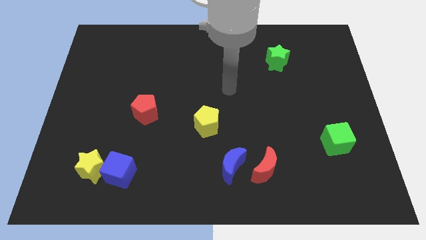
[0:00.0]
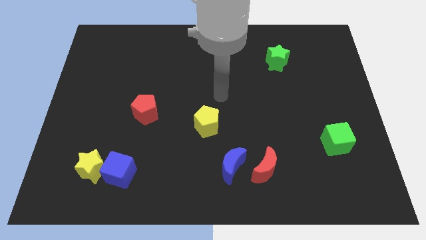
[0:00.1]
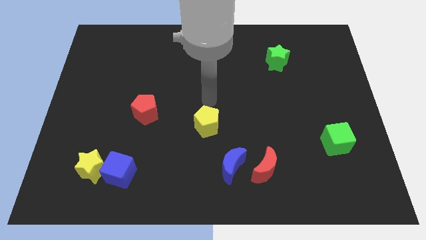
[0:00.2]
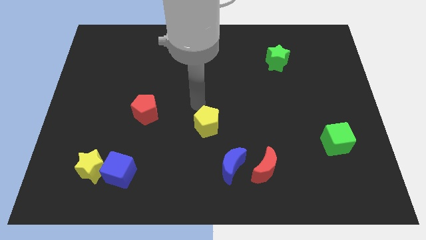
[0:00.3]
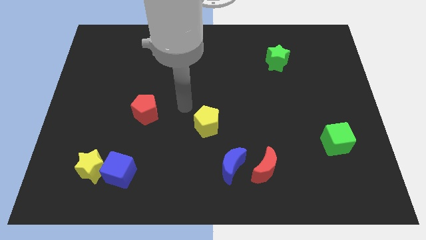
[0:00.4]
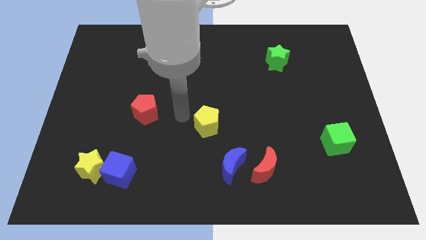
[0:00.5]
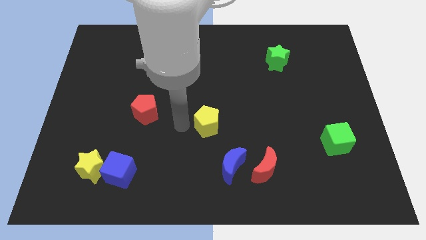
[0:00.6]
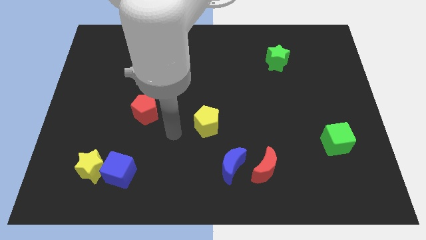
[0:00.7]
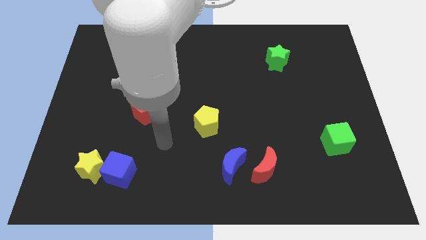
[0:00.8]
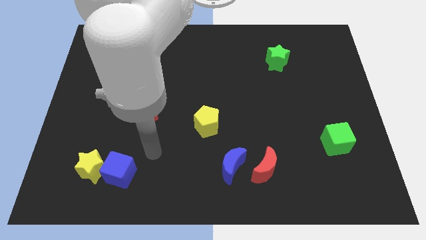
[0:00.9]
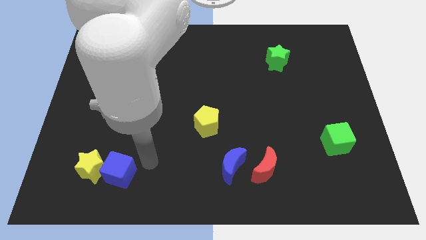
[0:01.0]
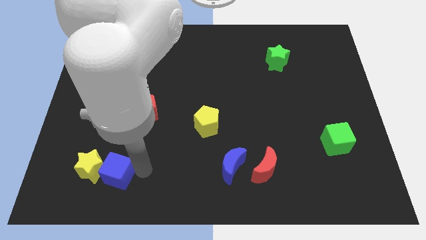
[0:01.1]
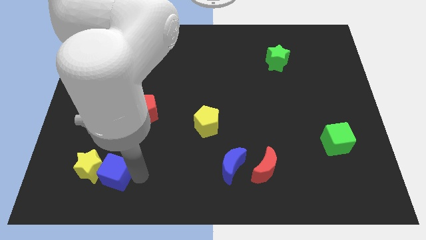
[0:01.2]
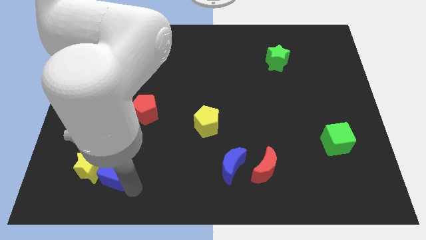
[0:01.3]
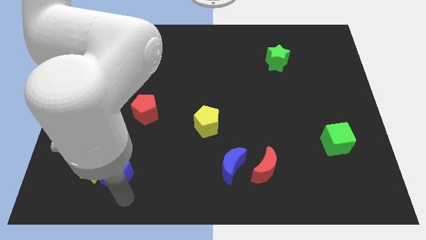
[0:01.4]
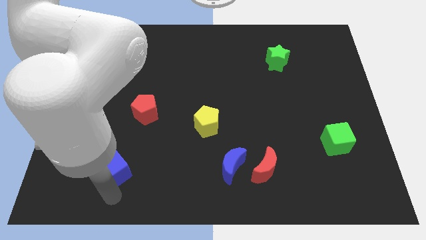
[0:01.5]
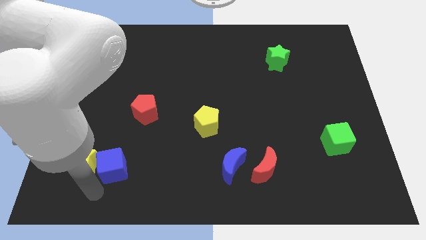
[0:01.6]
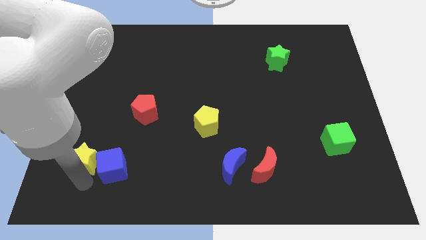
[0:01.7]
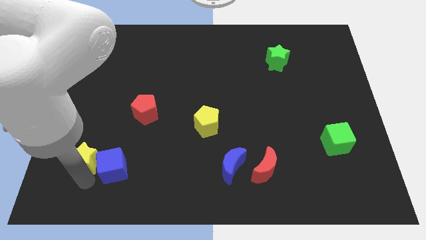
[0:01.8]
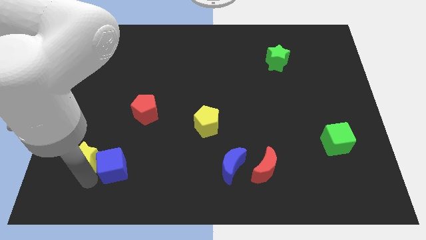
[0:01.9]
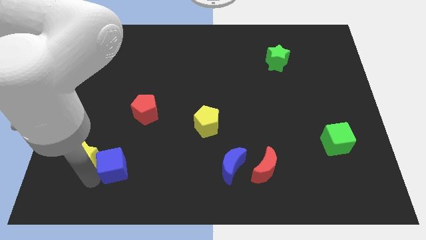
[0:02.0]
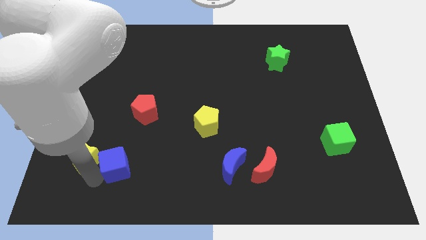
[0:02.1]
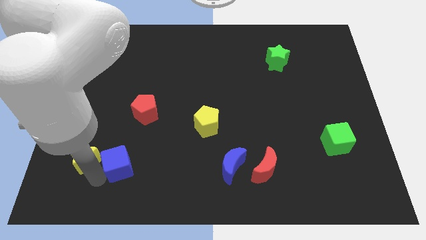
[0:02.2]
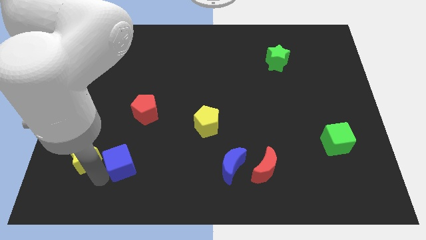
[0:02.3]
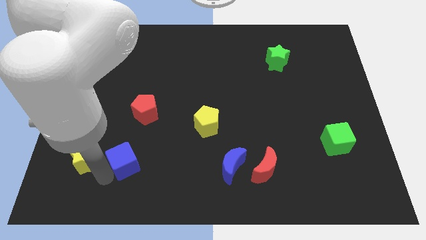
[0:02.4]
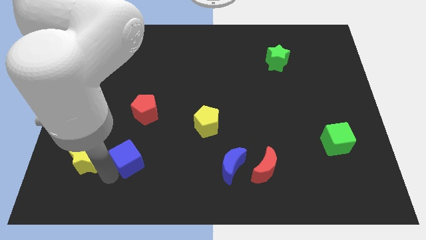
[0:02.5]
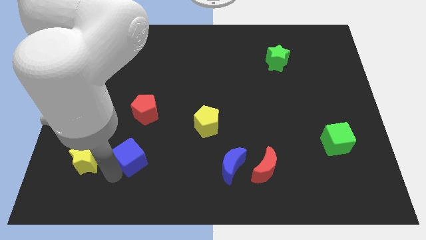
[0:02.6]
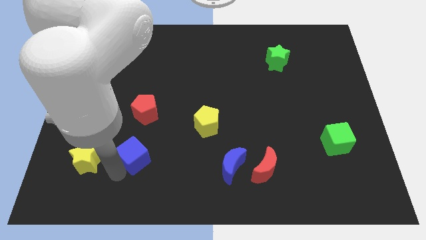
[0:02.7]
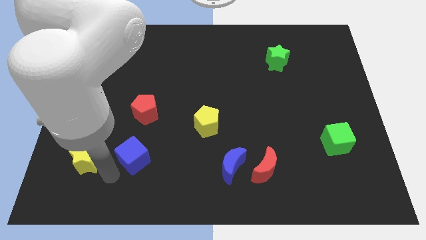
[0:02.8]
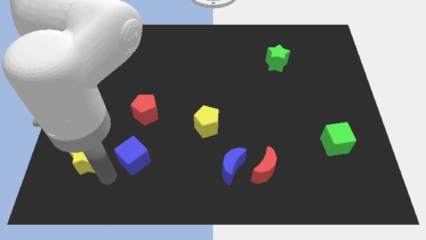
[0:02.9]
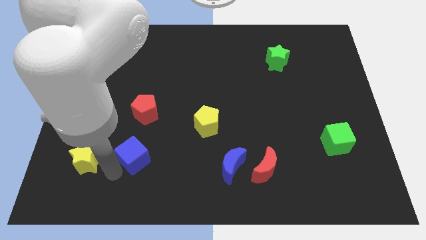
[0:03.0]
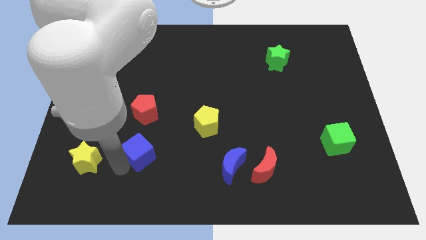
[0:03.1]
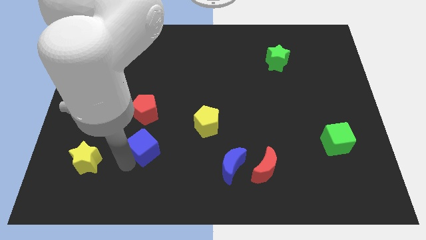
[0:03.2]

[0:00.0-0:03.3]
slide the blue cube a bit diagonally up and to the right

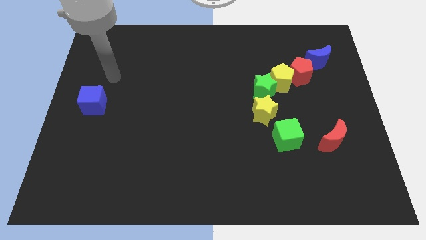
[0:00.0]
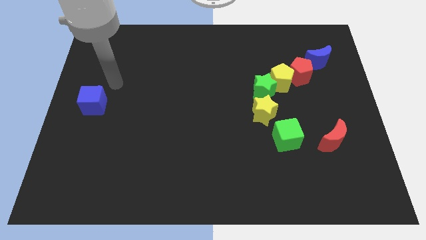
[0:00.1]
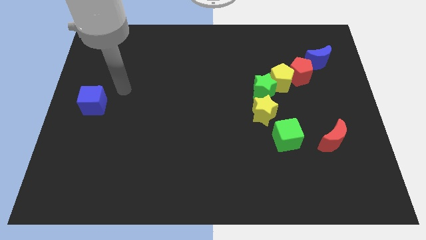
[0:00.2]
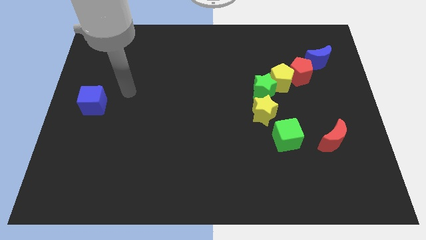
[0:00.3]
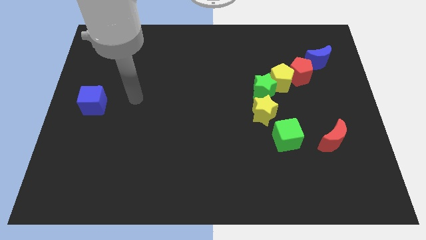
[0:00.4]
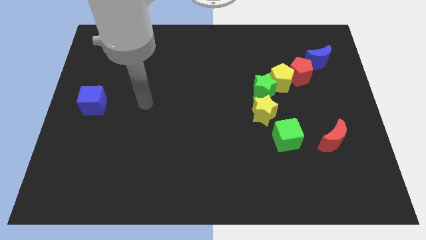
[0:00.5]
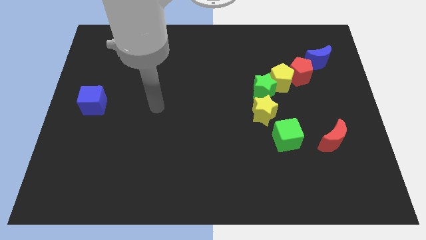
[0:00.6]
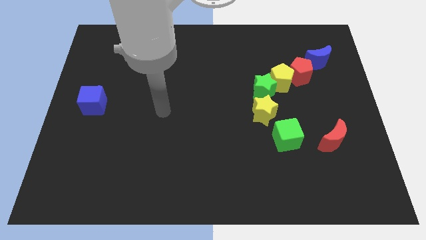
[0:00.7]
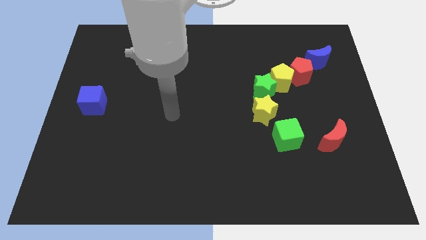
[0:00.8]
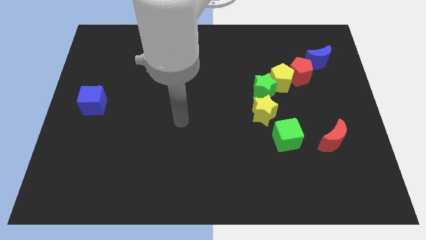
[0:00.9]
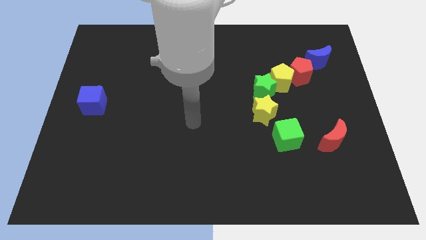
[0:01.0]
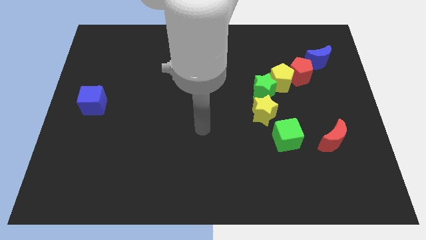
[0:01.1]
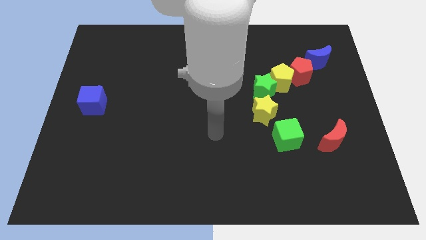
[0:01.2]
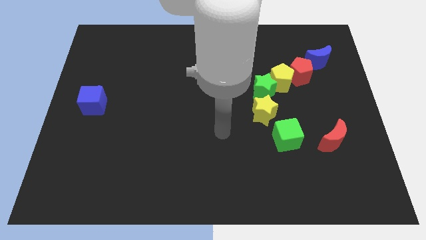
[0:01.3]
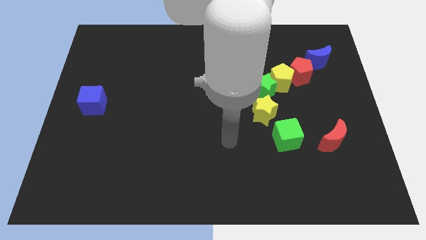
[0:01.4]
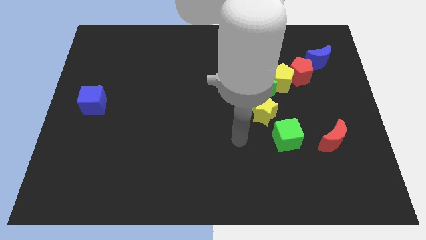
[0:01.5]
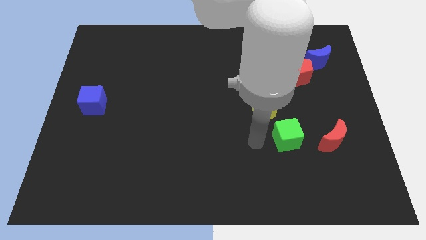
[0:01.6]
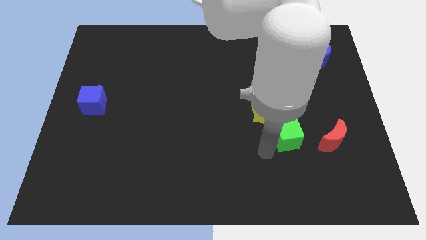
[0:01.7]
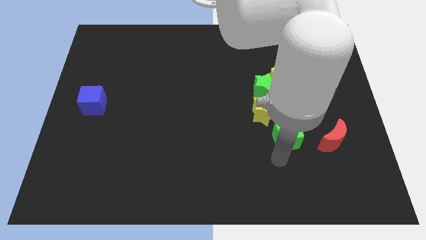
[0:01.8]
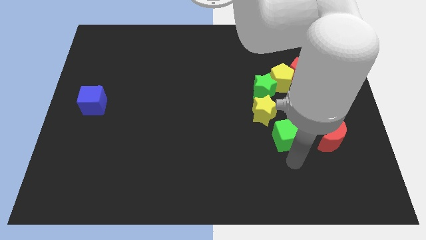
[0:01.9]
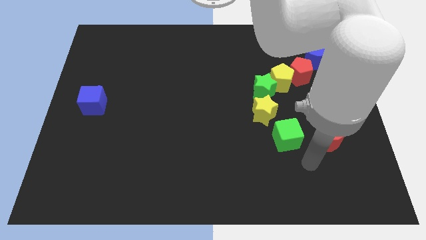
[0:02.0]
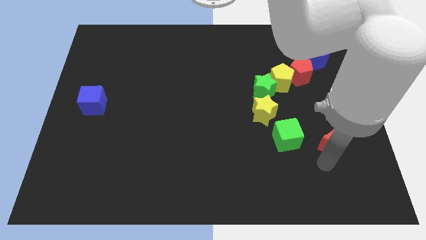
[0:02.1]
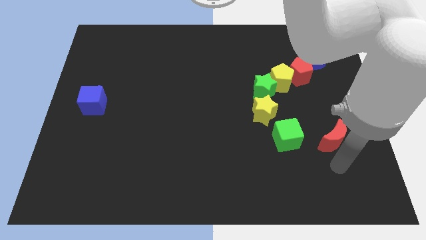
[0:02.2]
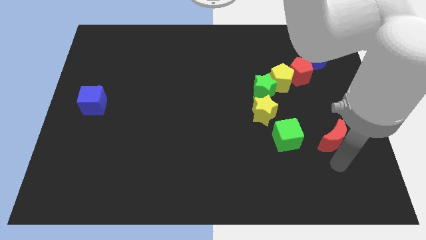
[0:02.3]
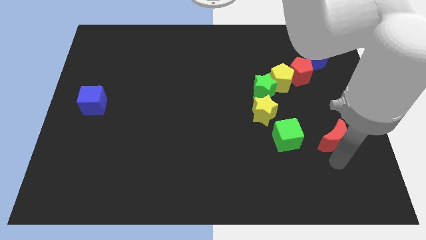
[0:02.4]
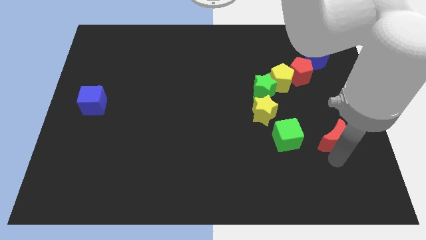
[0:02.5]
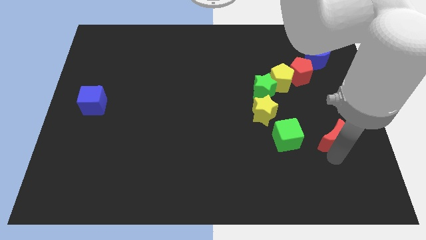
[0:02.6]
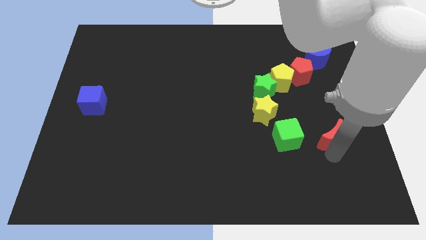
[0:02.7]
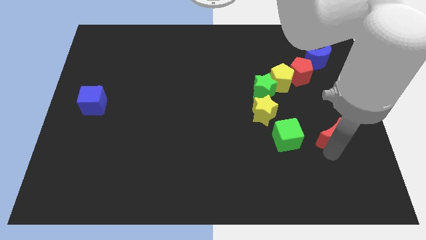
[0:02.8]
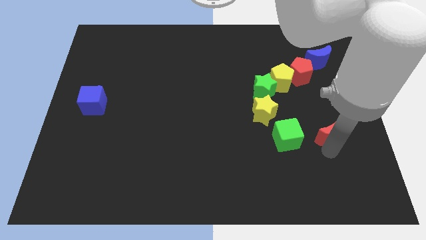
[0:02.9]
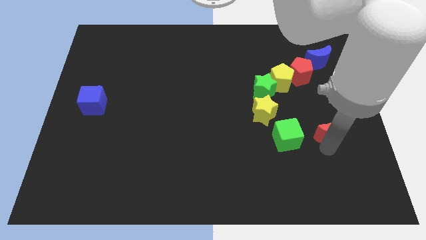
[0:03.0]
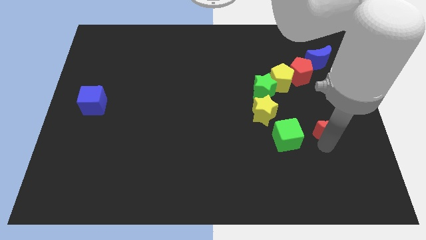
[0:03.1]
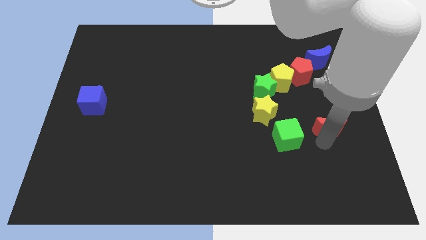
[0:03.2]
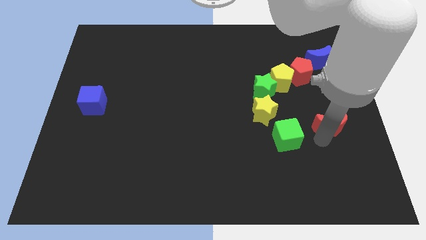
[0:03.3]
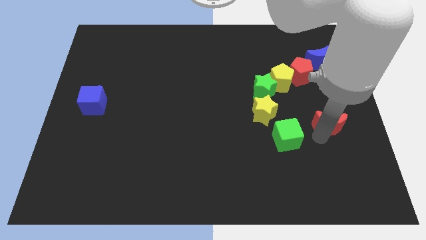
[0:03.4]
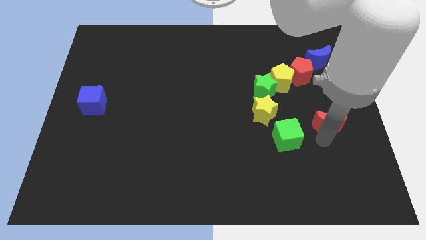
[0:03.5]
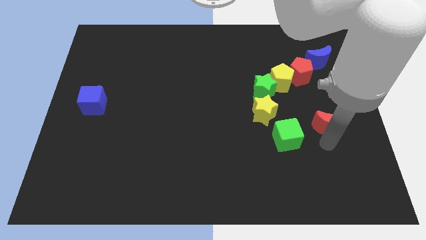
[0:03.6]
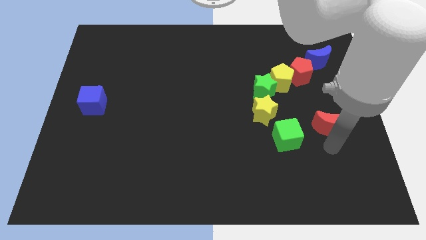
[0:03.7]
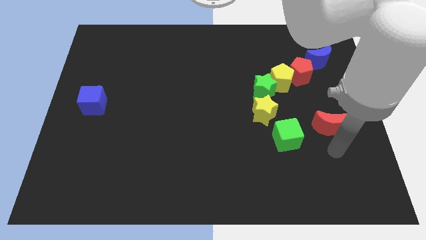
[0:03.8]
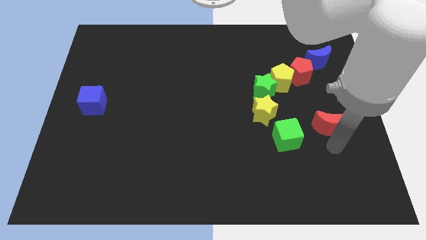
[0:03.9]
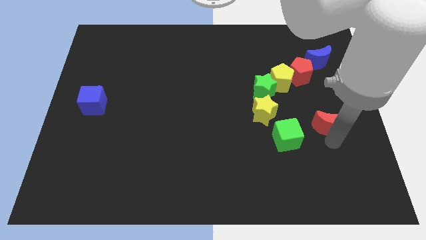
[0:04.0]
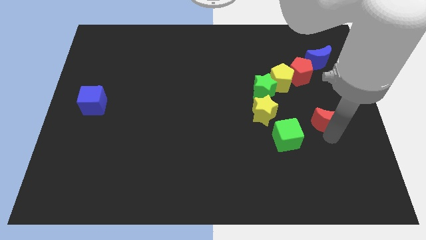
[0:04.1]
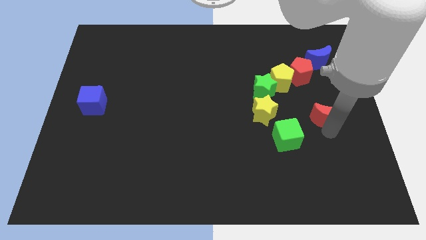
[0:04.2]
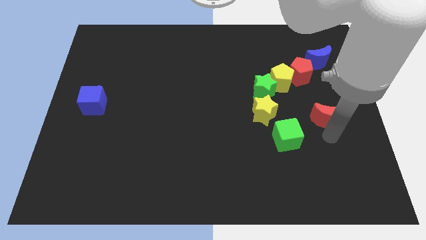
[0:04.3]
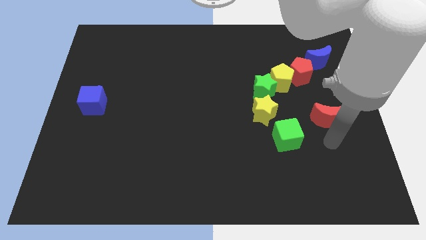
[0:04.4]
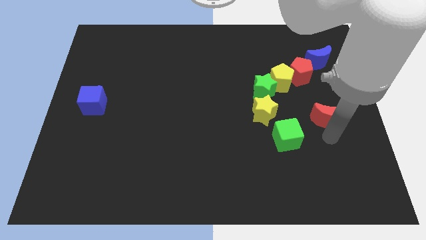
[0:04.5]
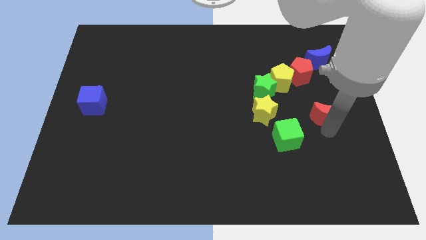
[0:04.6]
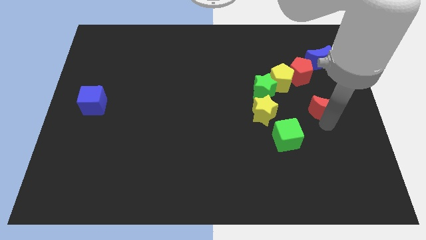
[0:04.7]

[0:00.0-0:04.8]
push the red moon up a little bit
